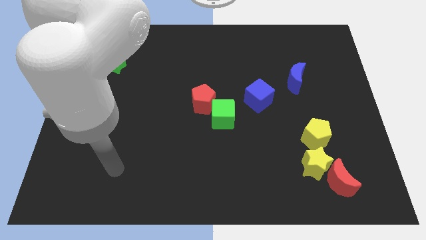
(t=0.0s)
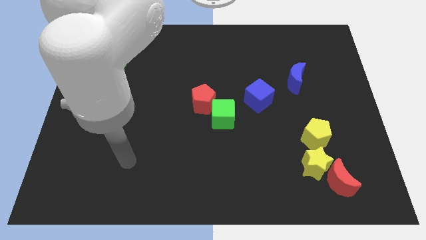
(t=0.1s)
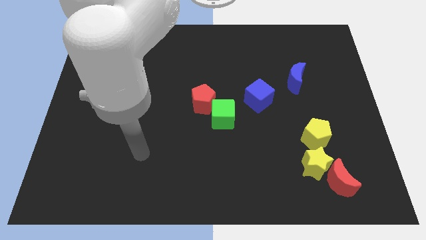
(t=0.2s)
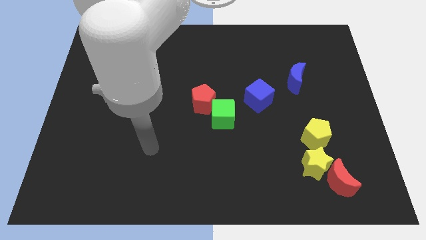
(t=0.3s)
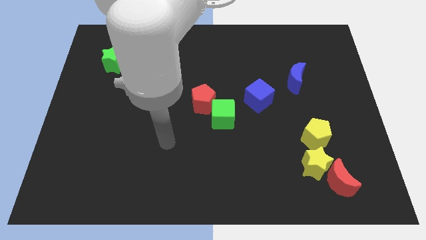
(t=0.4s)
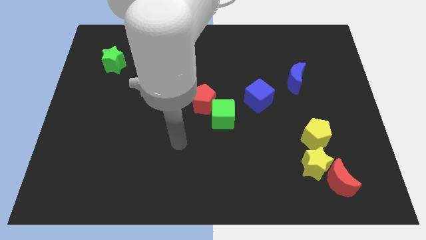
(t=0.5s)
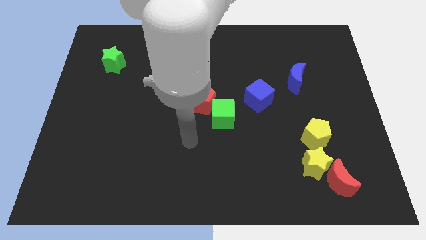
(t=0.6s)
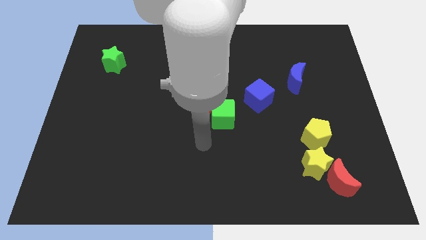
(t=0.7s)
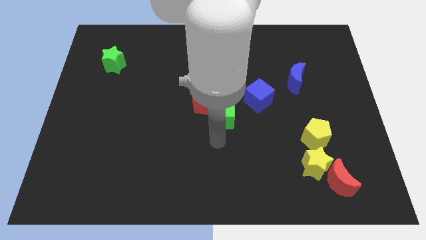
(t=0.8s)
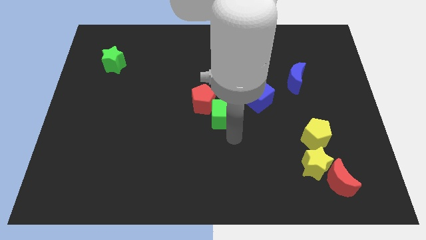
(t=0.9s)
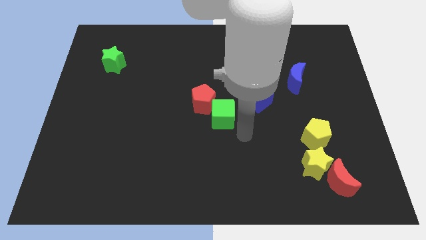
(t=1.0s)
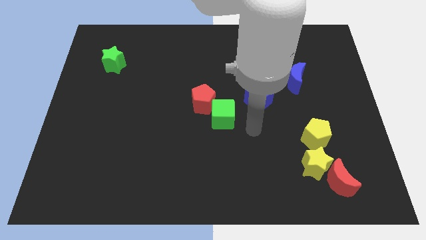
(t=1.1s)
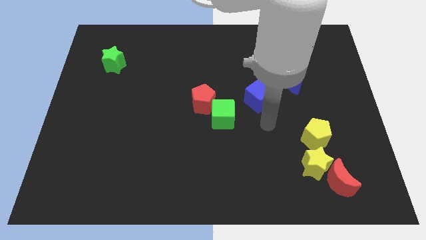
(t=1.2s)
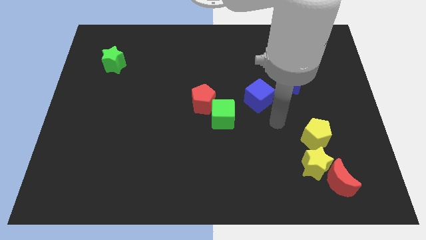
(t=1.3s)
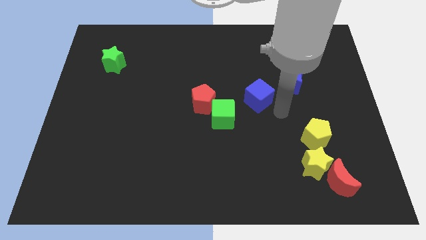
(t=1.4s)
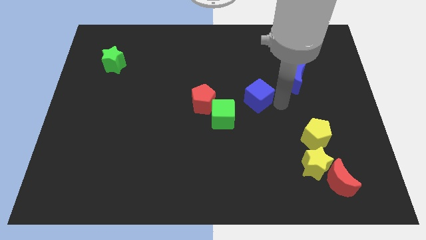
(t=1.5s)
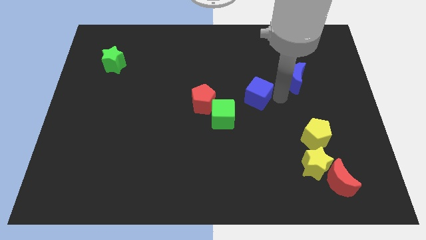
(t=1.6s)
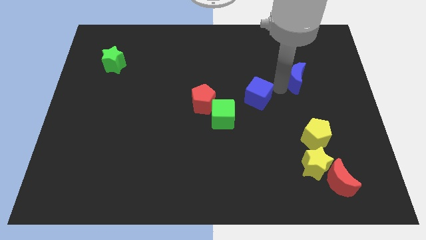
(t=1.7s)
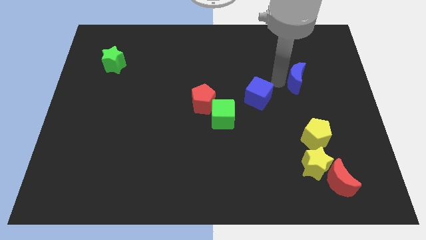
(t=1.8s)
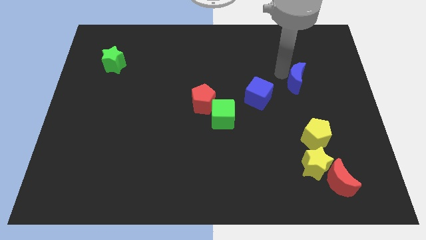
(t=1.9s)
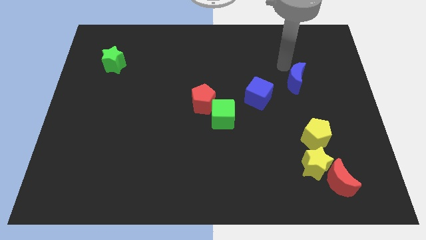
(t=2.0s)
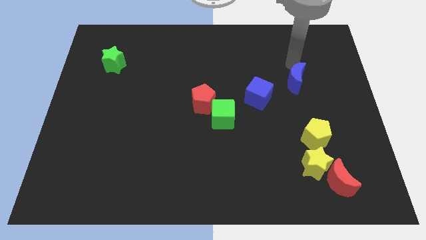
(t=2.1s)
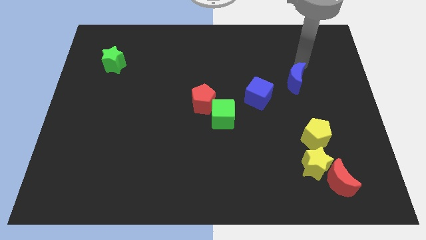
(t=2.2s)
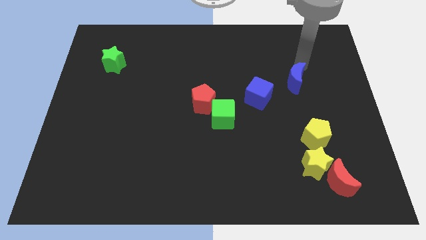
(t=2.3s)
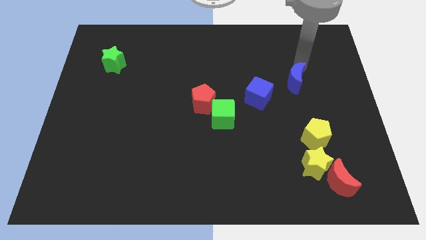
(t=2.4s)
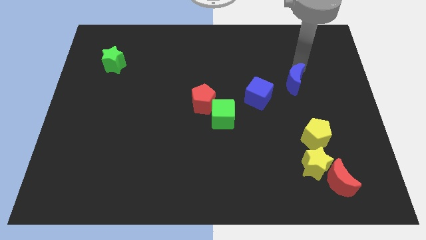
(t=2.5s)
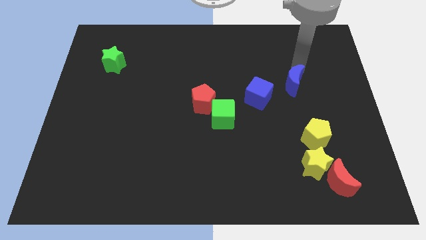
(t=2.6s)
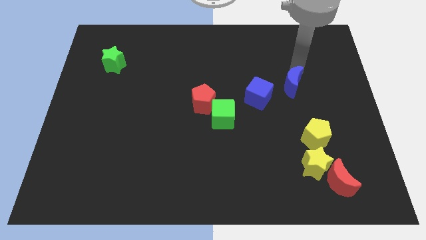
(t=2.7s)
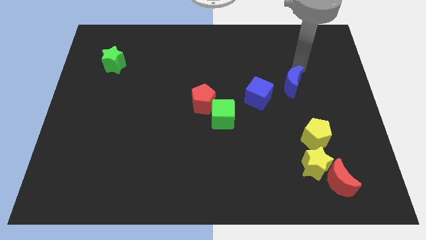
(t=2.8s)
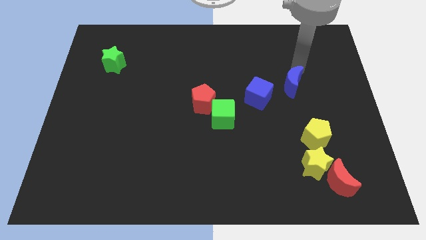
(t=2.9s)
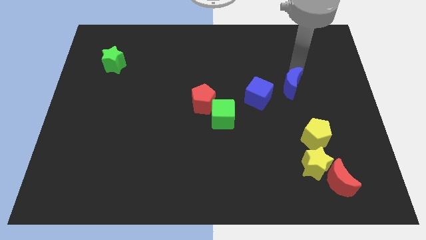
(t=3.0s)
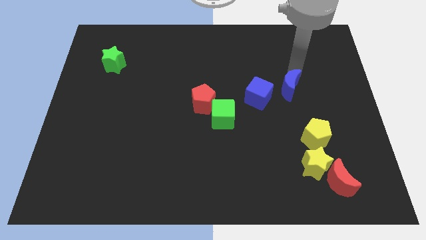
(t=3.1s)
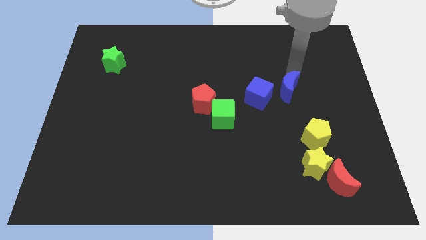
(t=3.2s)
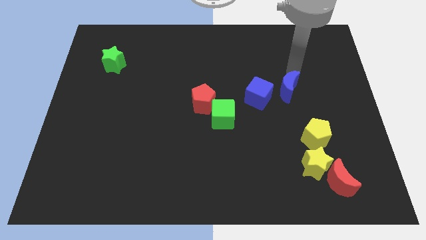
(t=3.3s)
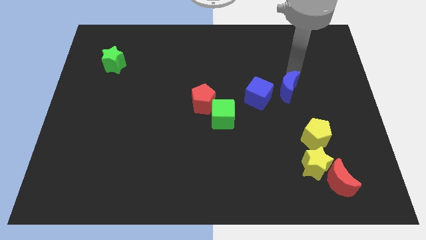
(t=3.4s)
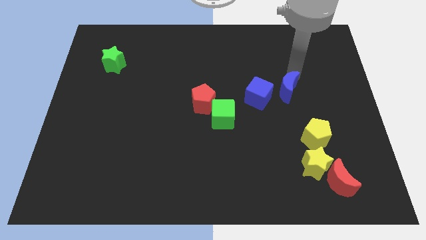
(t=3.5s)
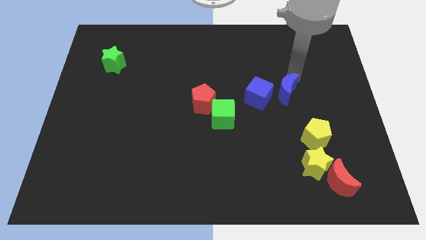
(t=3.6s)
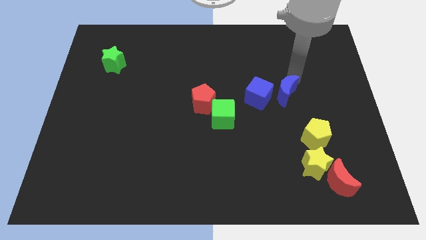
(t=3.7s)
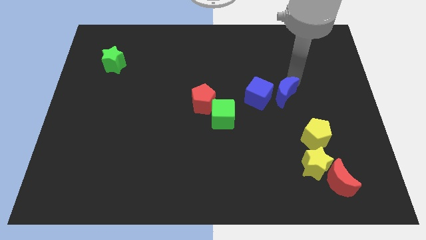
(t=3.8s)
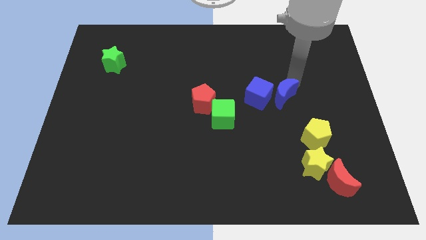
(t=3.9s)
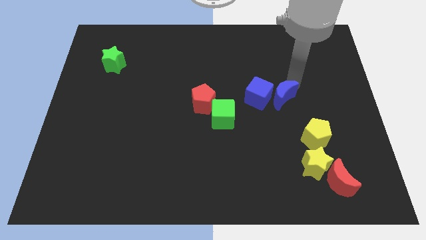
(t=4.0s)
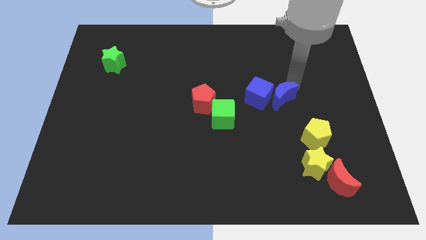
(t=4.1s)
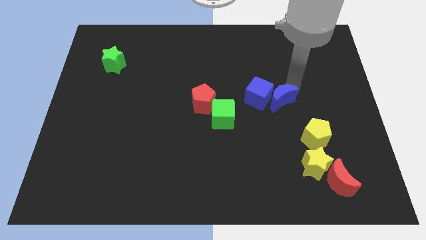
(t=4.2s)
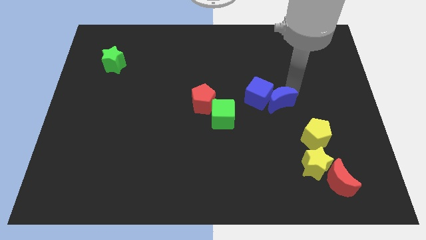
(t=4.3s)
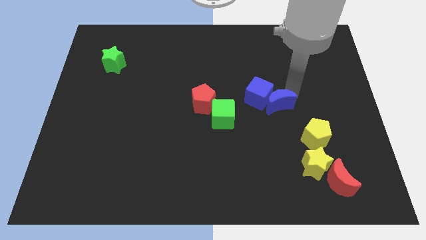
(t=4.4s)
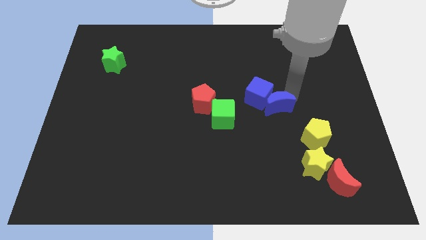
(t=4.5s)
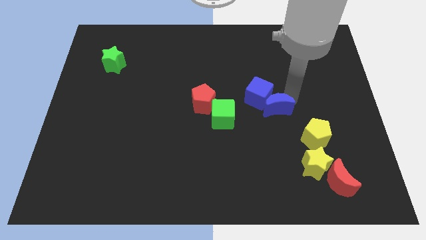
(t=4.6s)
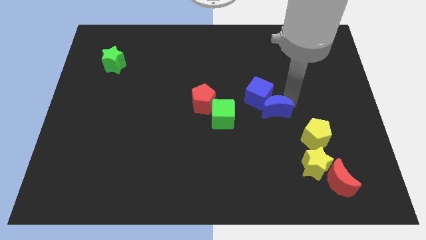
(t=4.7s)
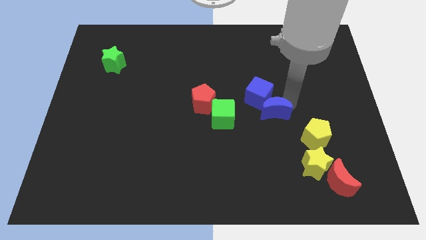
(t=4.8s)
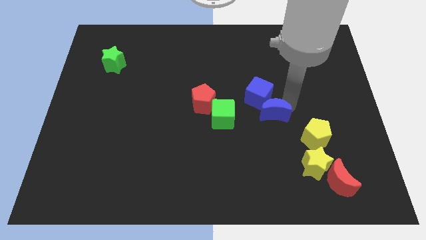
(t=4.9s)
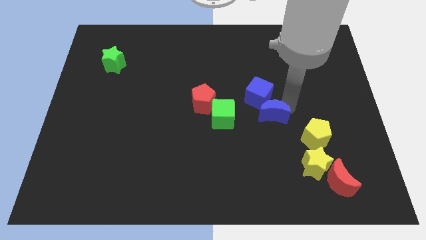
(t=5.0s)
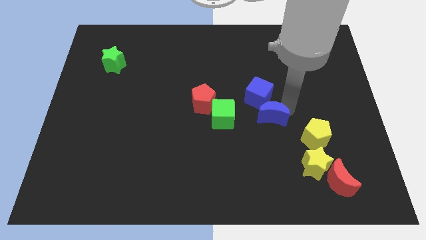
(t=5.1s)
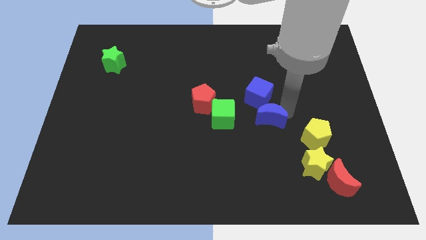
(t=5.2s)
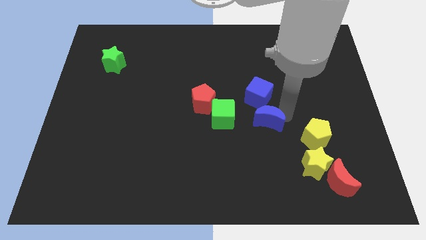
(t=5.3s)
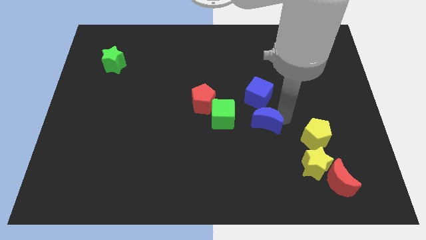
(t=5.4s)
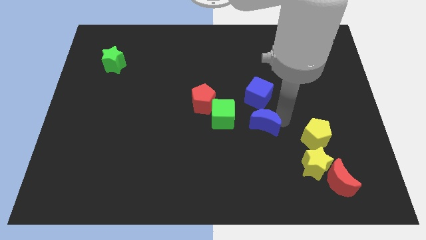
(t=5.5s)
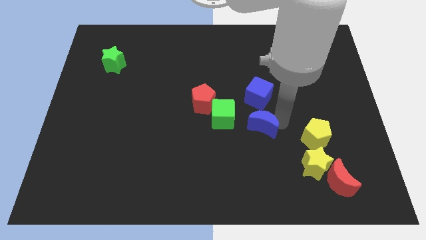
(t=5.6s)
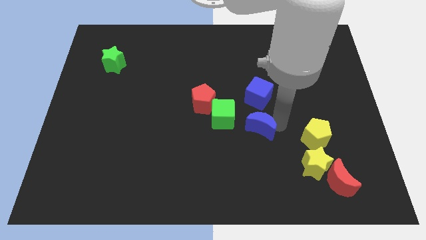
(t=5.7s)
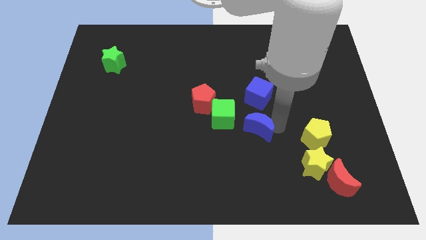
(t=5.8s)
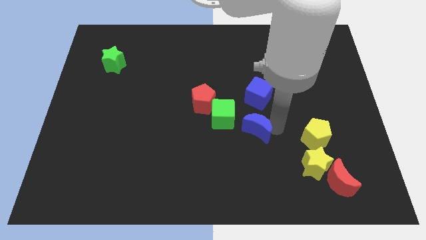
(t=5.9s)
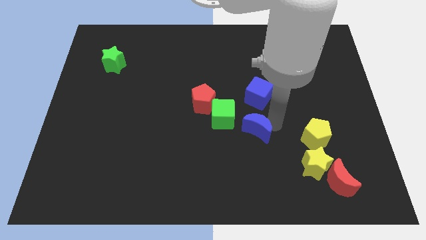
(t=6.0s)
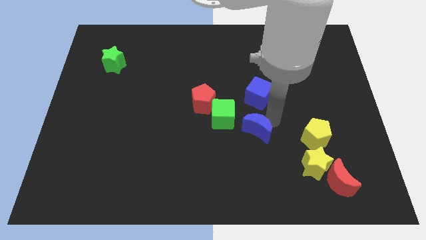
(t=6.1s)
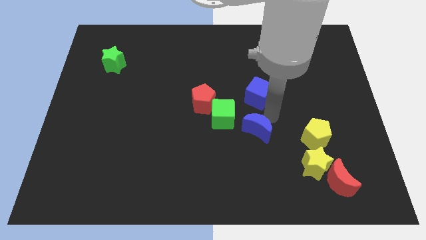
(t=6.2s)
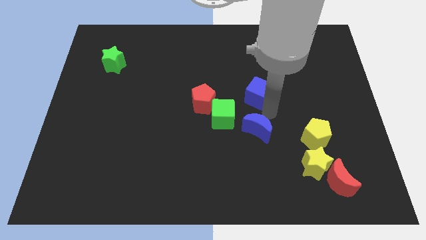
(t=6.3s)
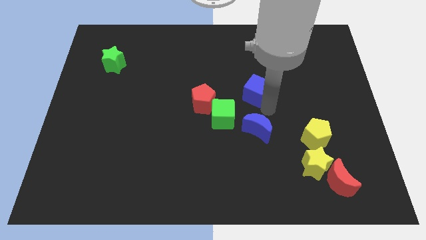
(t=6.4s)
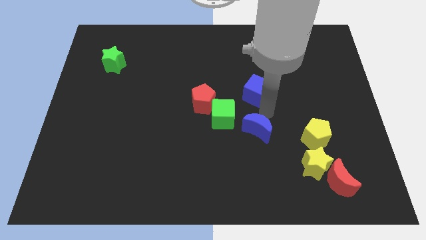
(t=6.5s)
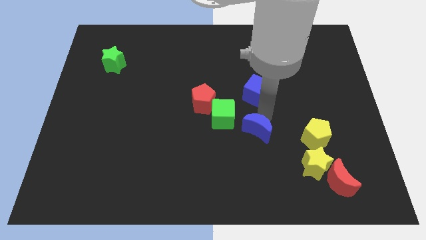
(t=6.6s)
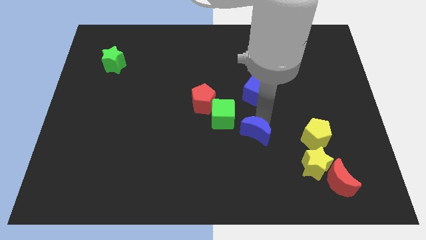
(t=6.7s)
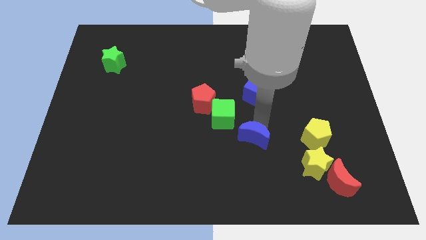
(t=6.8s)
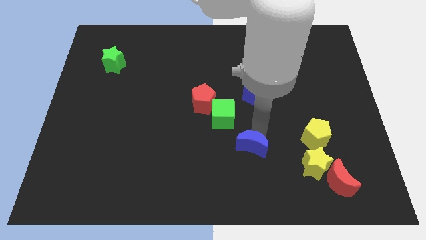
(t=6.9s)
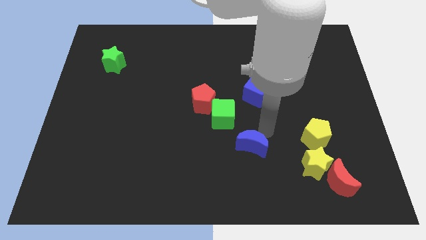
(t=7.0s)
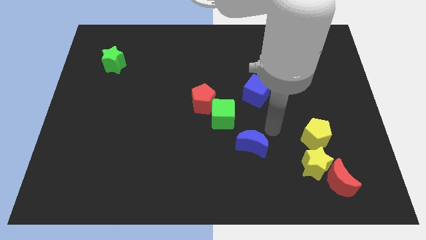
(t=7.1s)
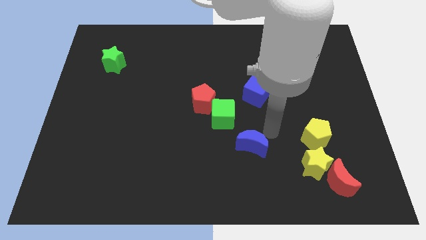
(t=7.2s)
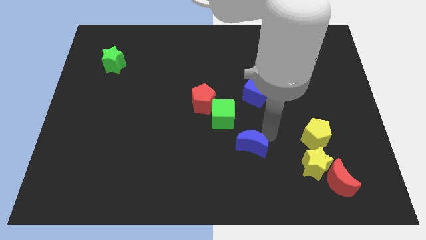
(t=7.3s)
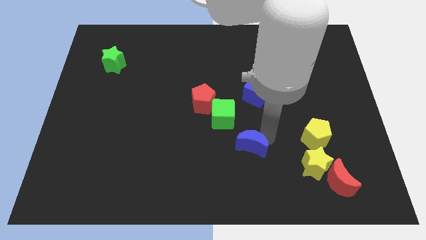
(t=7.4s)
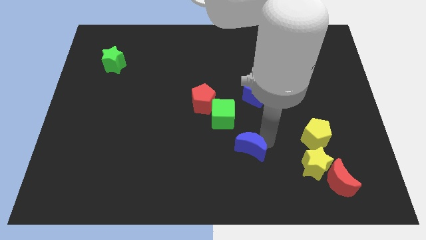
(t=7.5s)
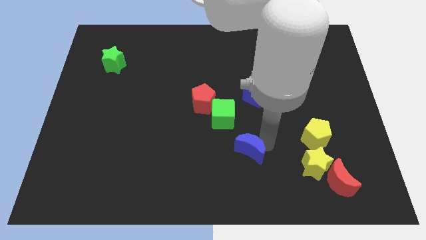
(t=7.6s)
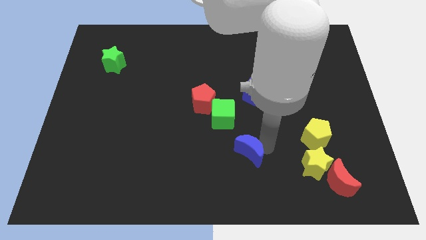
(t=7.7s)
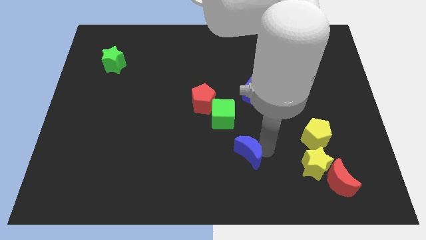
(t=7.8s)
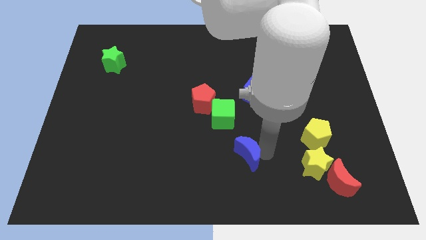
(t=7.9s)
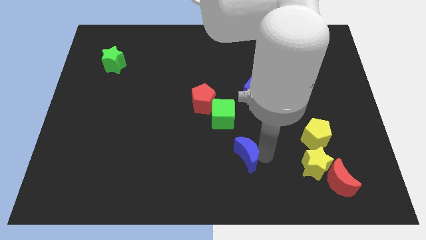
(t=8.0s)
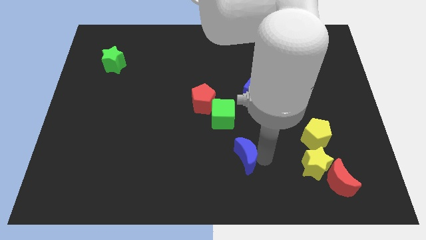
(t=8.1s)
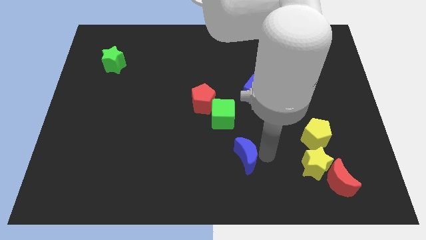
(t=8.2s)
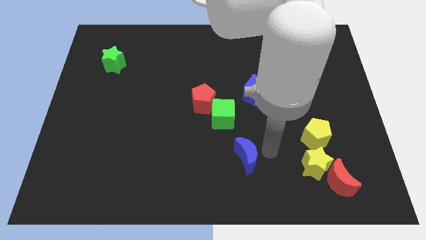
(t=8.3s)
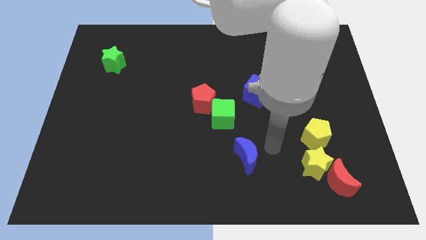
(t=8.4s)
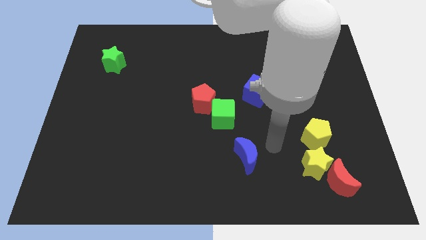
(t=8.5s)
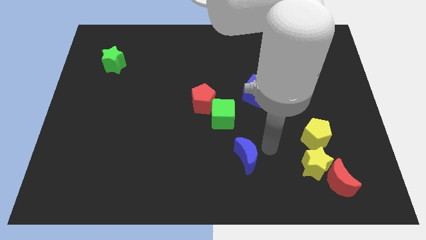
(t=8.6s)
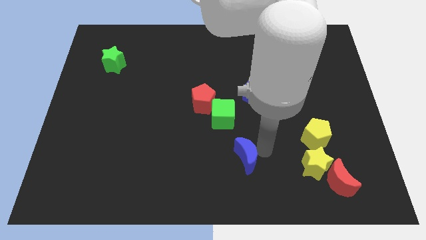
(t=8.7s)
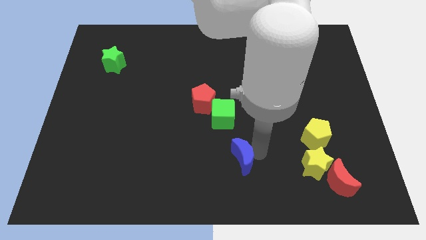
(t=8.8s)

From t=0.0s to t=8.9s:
push the blue moon to the bottom side
